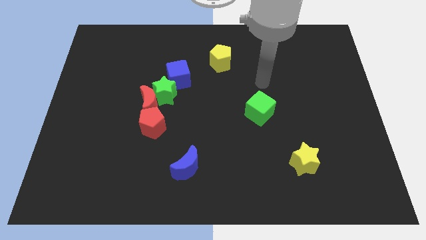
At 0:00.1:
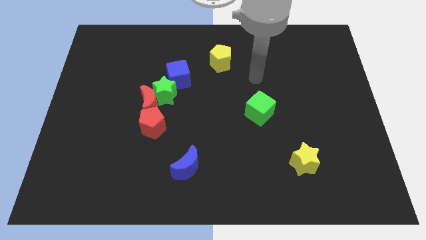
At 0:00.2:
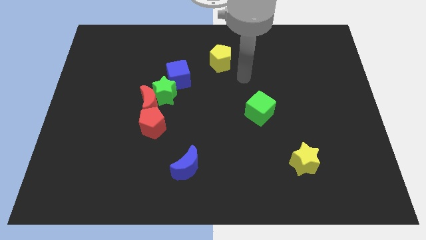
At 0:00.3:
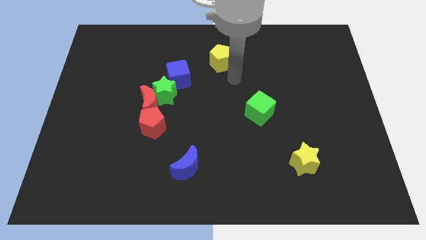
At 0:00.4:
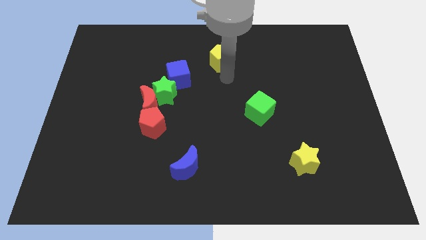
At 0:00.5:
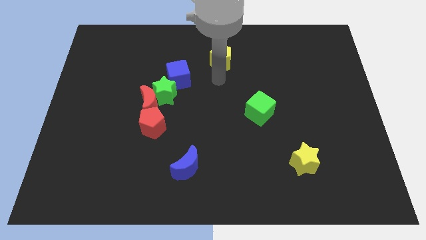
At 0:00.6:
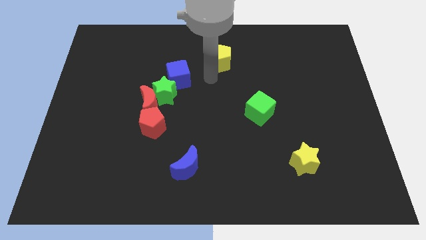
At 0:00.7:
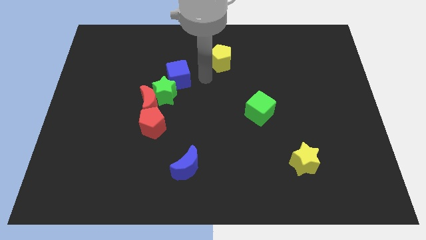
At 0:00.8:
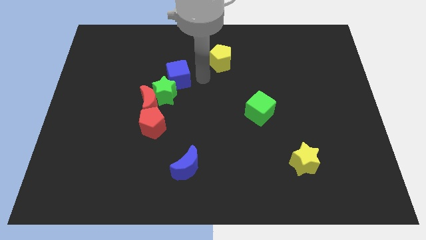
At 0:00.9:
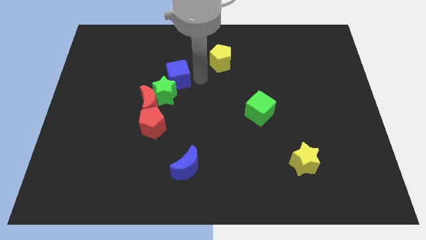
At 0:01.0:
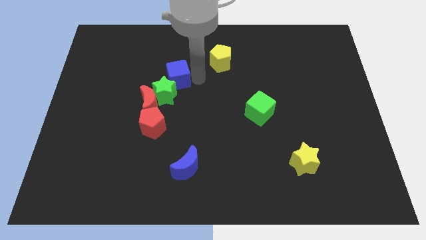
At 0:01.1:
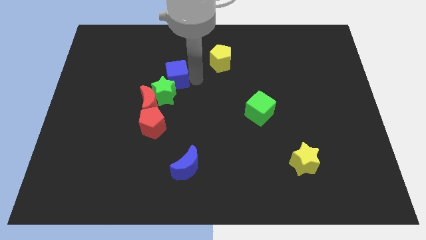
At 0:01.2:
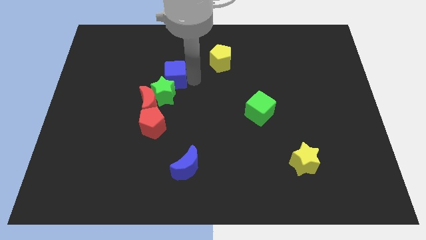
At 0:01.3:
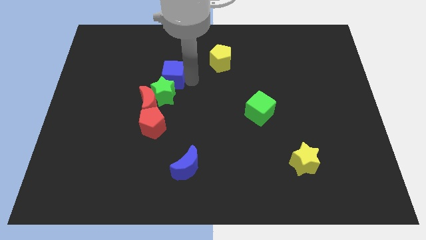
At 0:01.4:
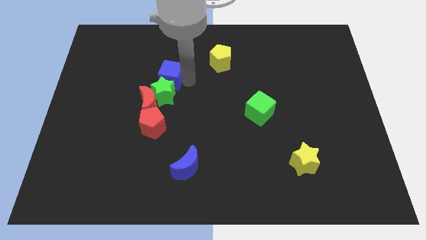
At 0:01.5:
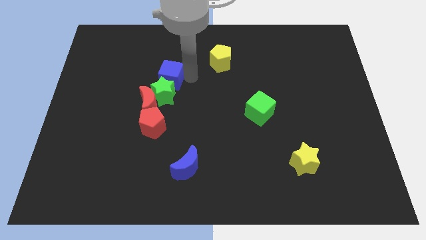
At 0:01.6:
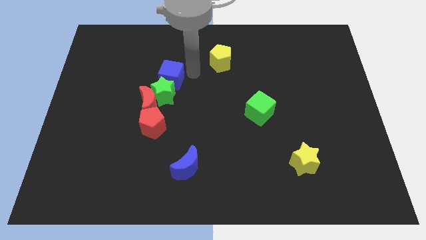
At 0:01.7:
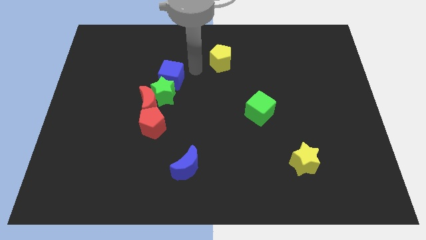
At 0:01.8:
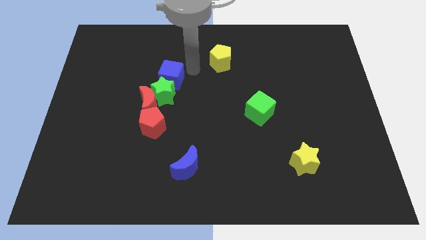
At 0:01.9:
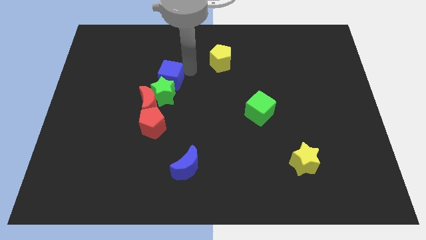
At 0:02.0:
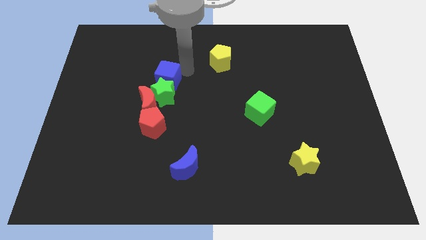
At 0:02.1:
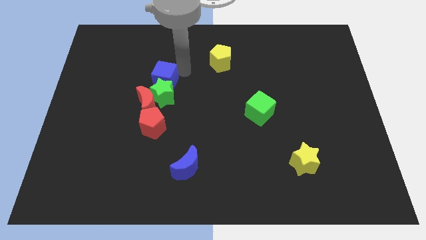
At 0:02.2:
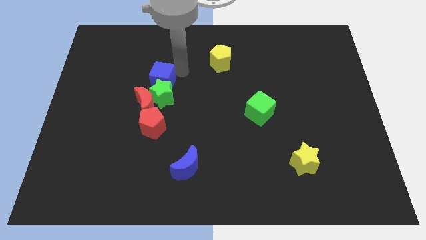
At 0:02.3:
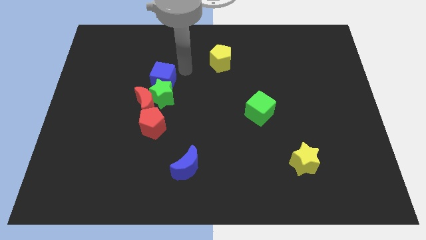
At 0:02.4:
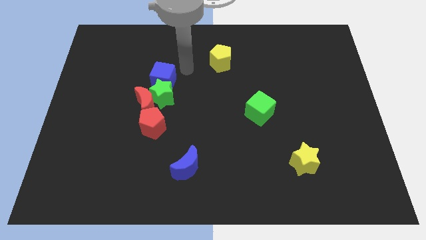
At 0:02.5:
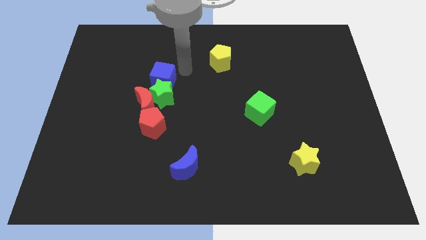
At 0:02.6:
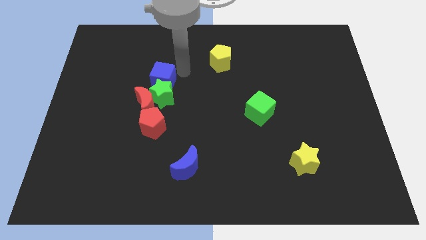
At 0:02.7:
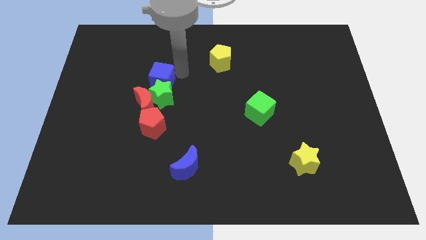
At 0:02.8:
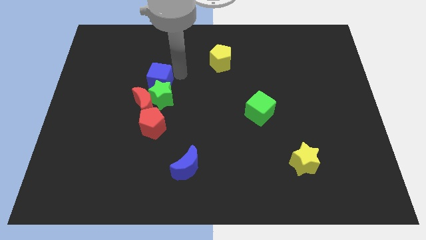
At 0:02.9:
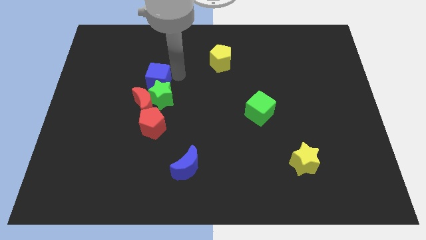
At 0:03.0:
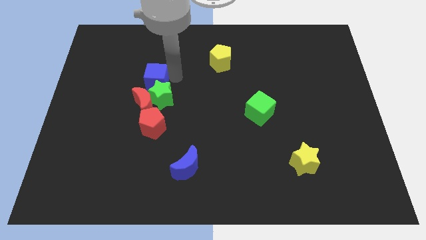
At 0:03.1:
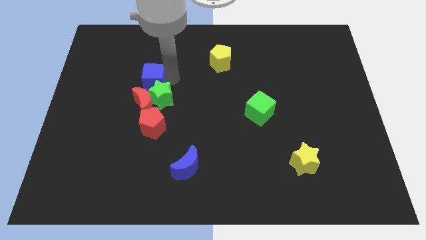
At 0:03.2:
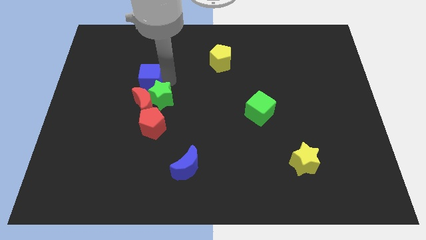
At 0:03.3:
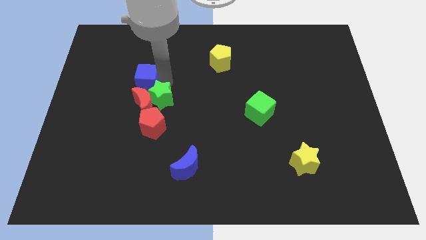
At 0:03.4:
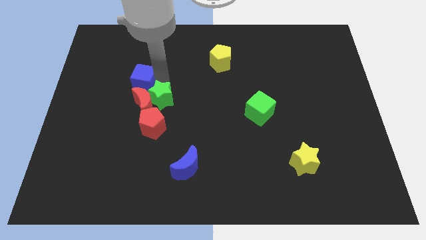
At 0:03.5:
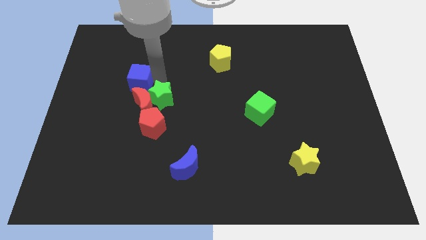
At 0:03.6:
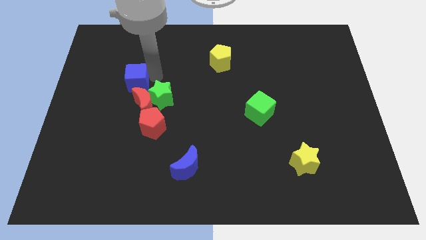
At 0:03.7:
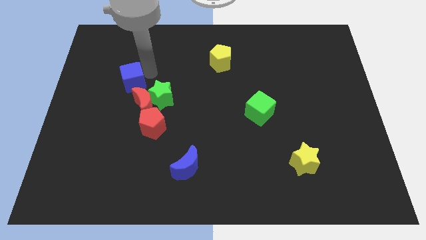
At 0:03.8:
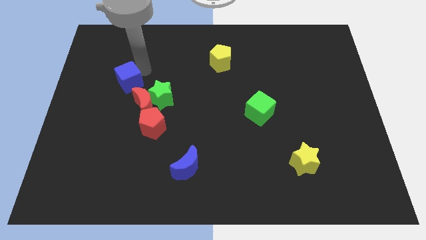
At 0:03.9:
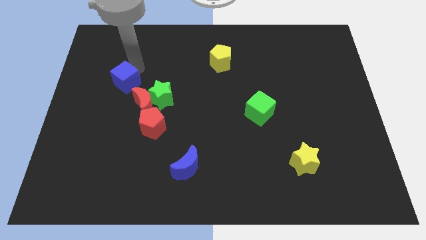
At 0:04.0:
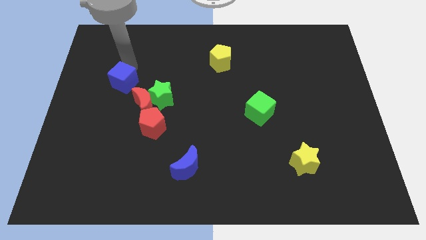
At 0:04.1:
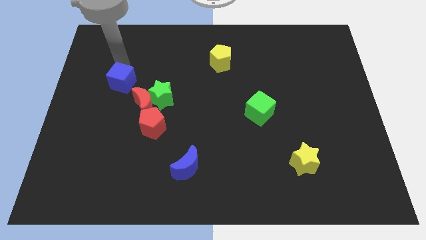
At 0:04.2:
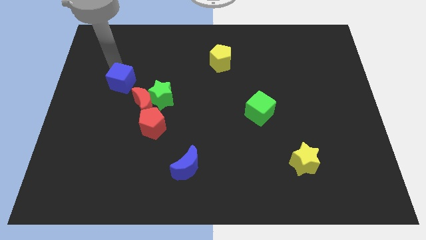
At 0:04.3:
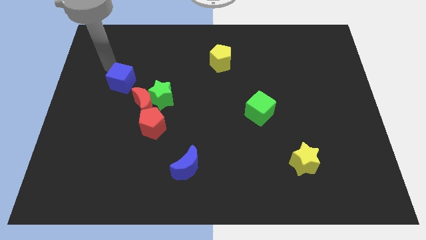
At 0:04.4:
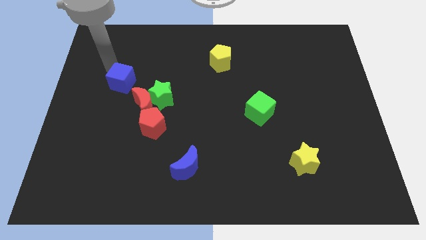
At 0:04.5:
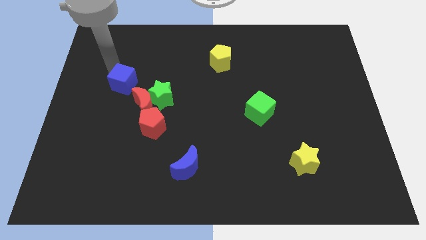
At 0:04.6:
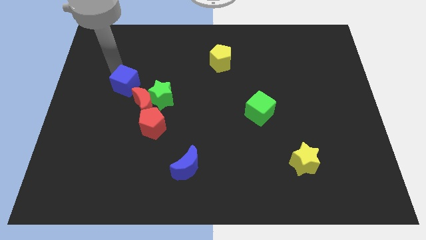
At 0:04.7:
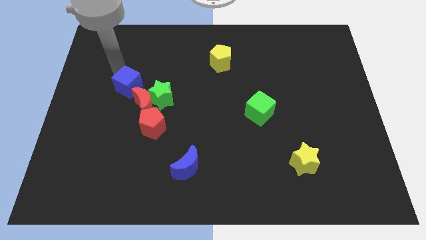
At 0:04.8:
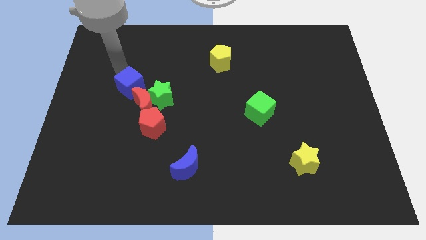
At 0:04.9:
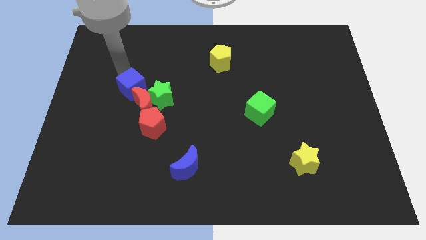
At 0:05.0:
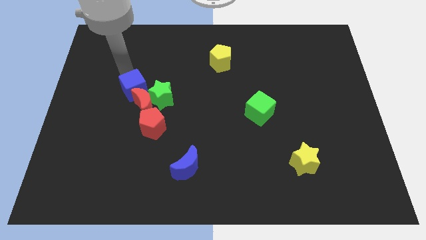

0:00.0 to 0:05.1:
push the blue cube next to the red moon

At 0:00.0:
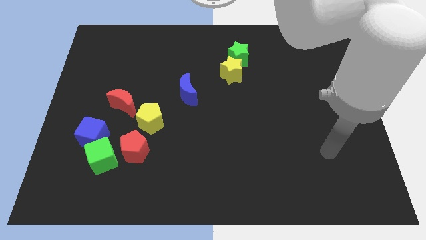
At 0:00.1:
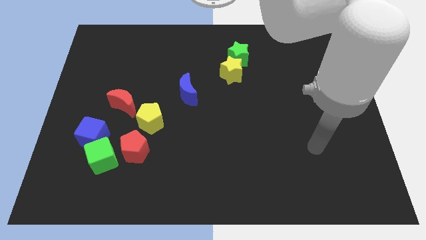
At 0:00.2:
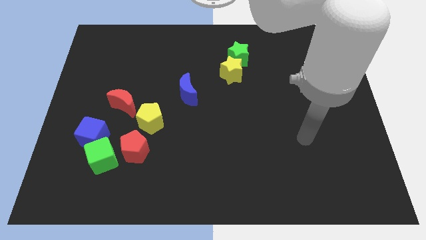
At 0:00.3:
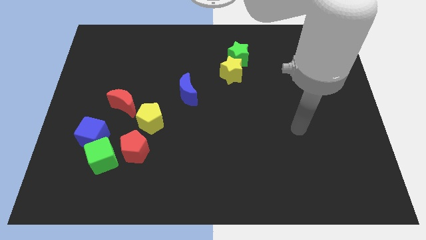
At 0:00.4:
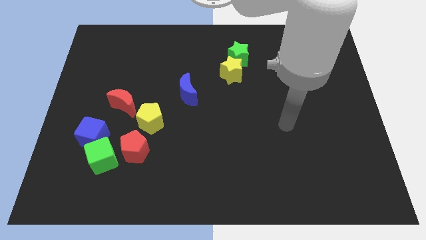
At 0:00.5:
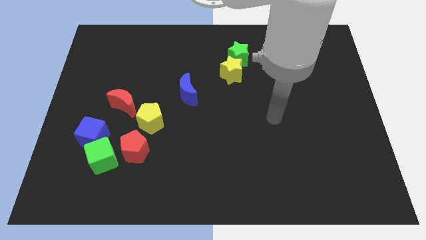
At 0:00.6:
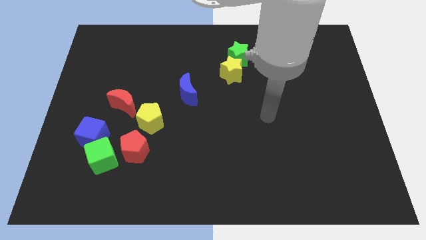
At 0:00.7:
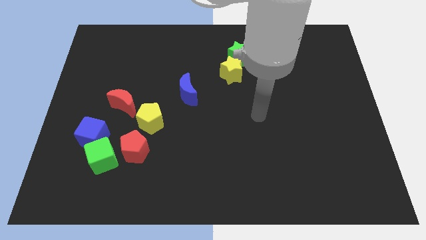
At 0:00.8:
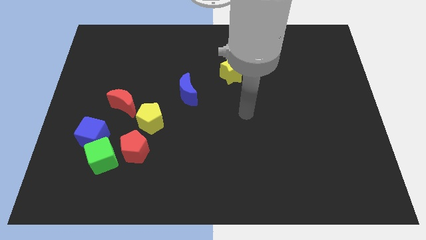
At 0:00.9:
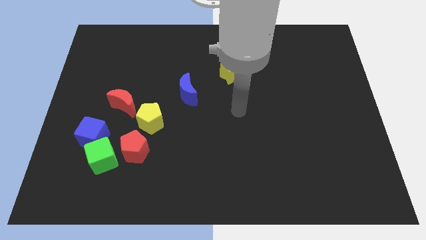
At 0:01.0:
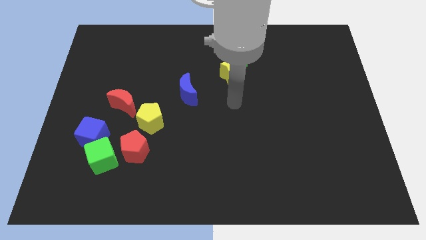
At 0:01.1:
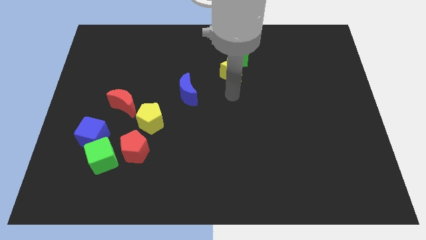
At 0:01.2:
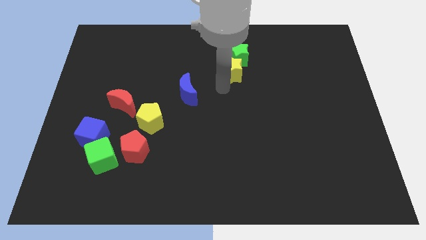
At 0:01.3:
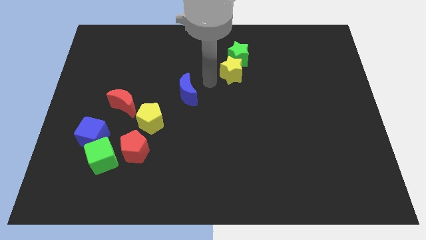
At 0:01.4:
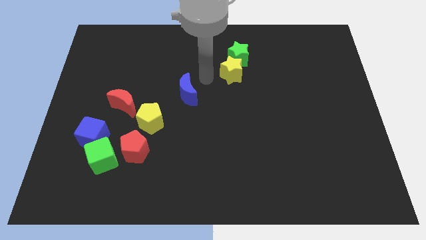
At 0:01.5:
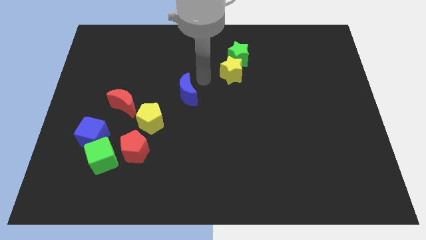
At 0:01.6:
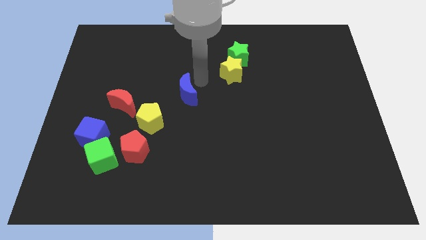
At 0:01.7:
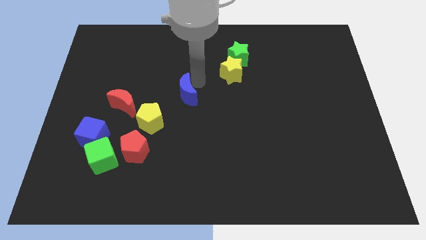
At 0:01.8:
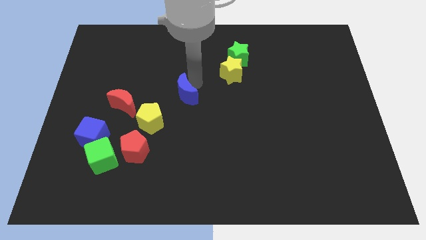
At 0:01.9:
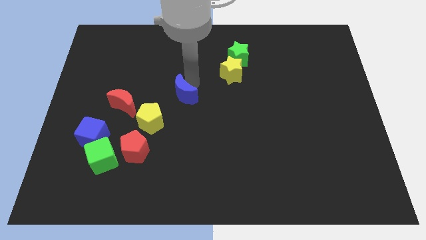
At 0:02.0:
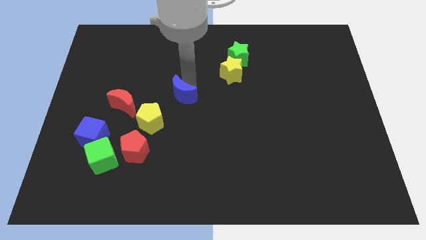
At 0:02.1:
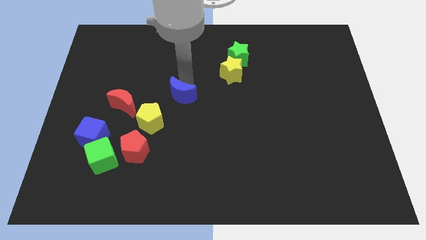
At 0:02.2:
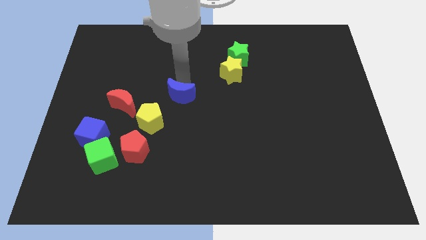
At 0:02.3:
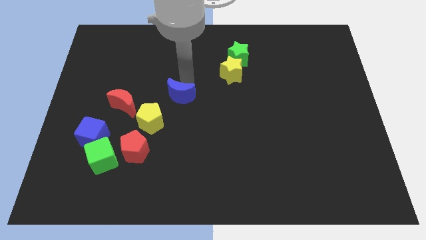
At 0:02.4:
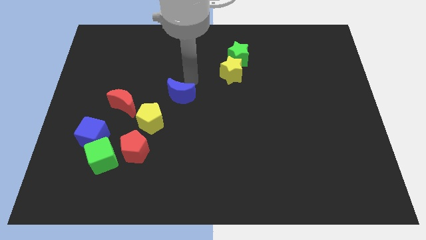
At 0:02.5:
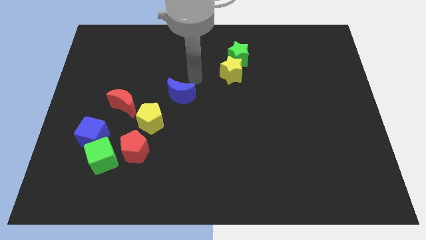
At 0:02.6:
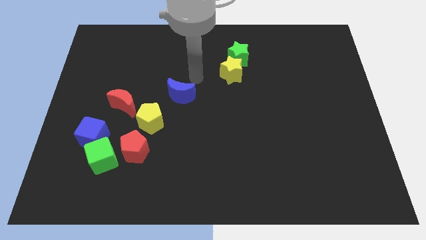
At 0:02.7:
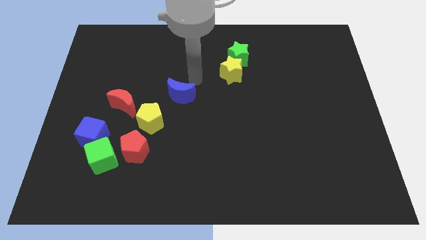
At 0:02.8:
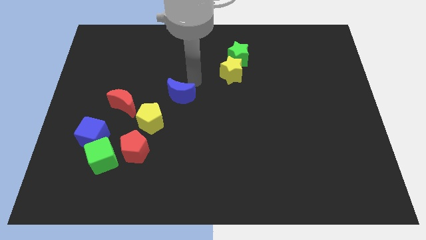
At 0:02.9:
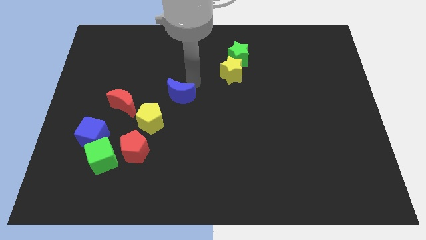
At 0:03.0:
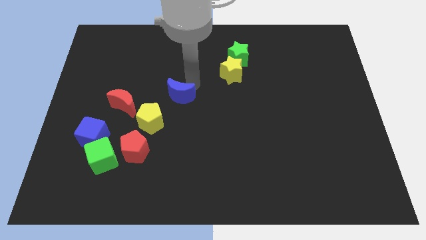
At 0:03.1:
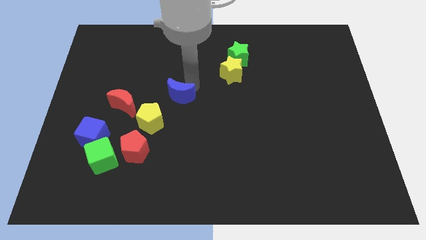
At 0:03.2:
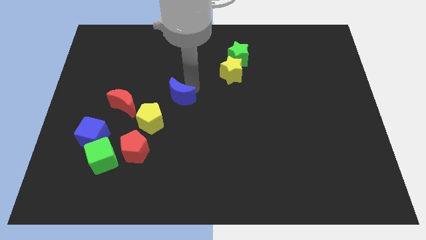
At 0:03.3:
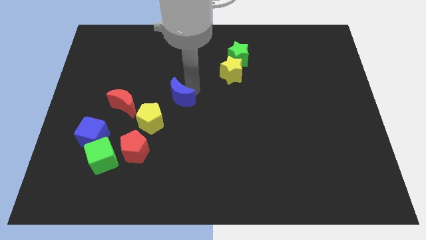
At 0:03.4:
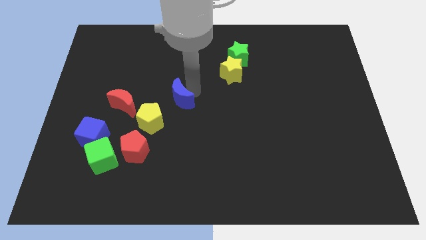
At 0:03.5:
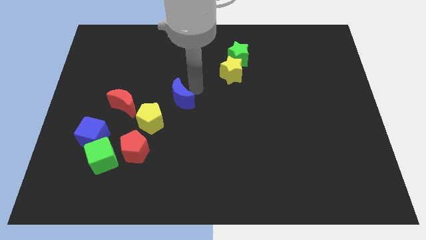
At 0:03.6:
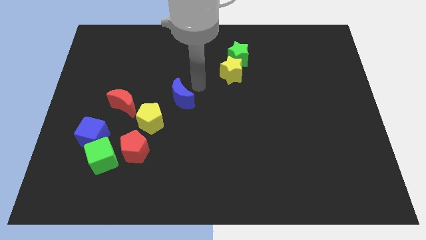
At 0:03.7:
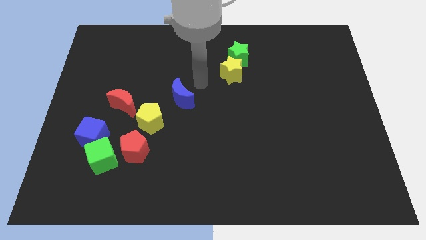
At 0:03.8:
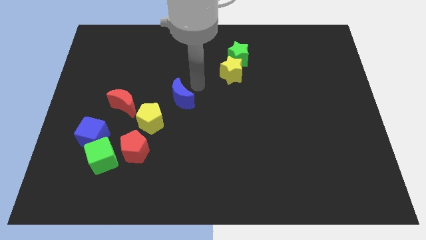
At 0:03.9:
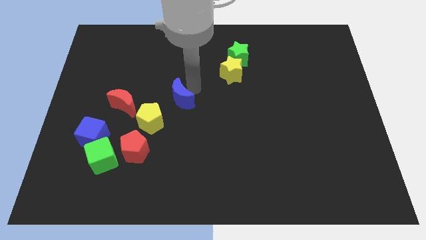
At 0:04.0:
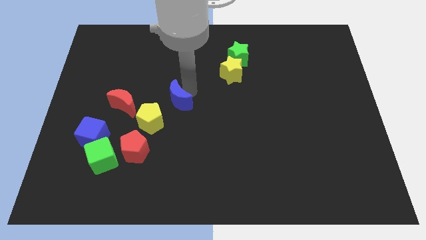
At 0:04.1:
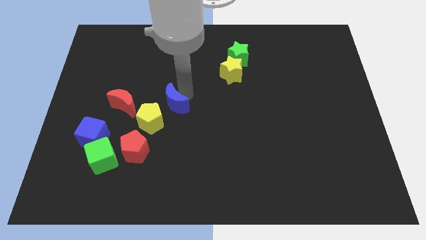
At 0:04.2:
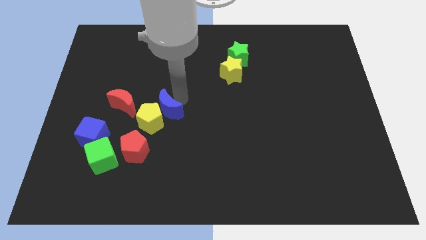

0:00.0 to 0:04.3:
move the blue moon to the yellow pentagon
